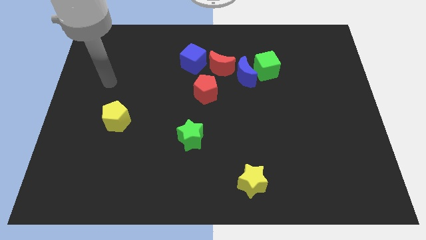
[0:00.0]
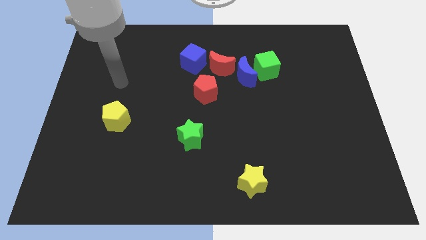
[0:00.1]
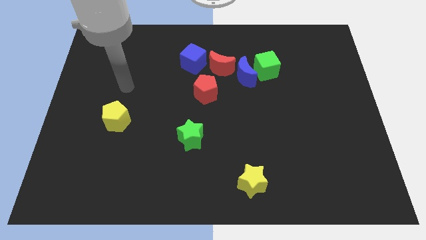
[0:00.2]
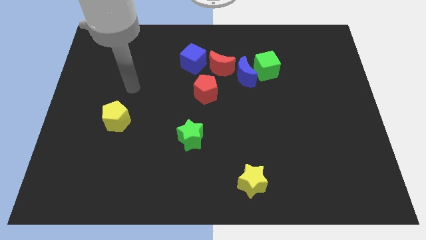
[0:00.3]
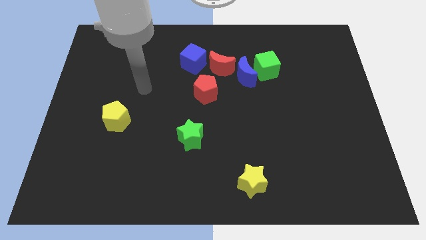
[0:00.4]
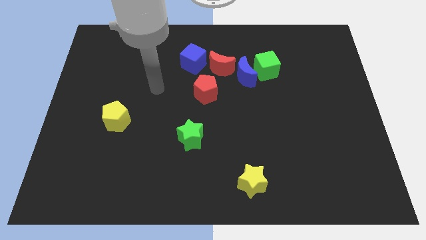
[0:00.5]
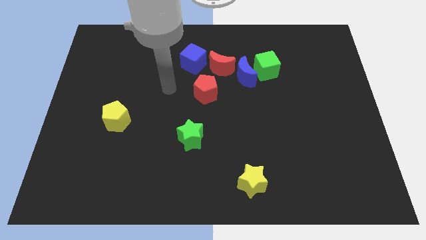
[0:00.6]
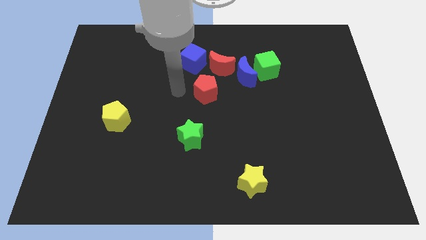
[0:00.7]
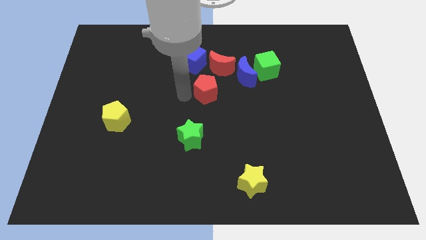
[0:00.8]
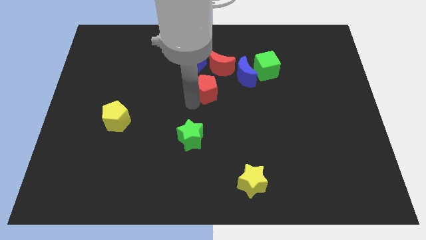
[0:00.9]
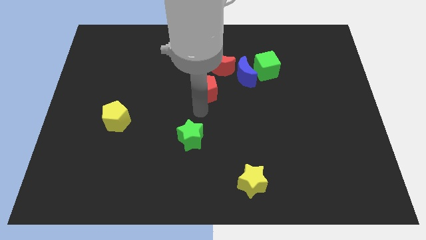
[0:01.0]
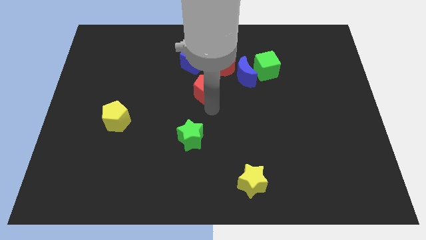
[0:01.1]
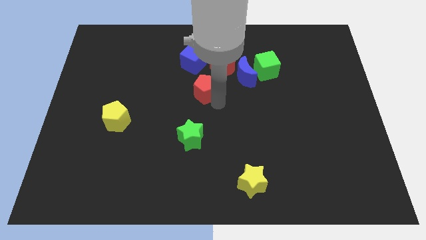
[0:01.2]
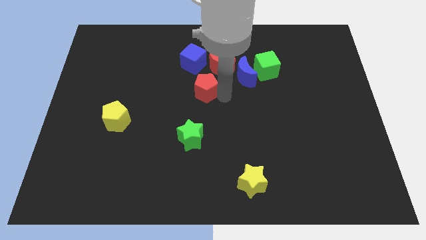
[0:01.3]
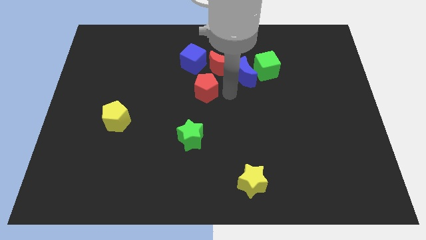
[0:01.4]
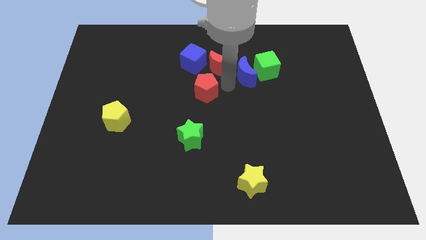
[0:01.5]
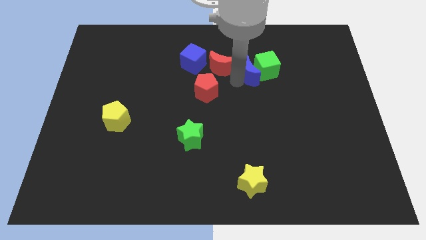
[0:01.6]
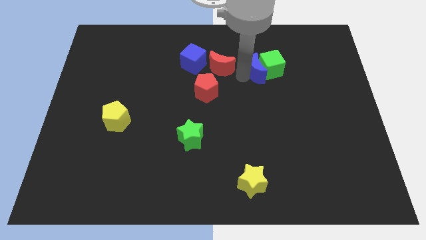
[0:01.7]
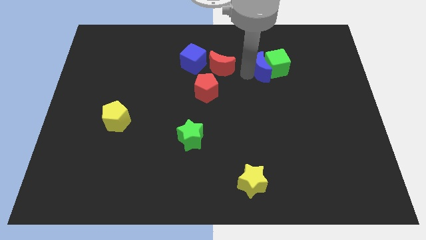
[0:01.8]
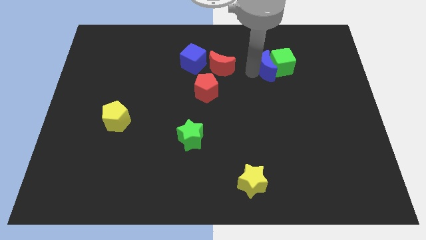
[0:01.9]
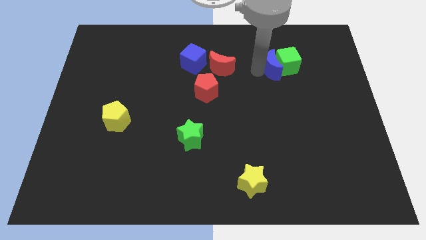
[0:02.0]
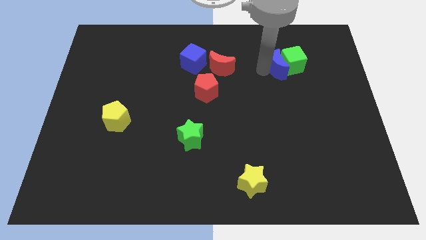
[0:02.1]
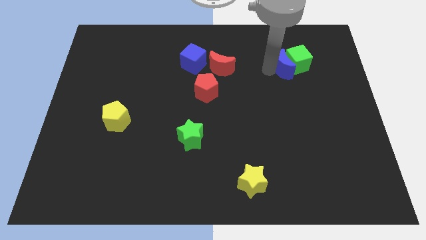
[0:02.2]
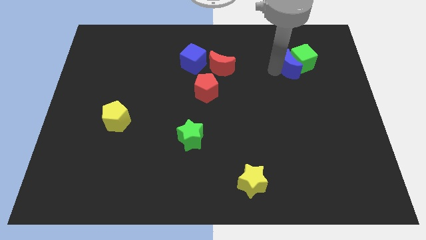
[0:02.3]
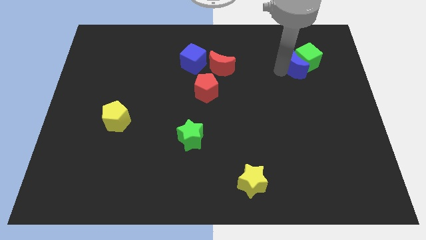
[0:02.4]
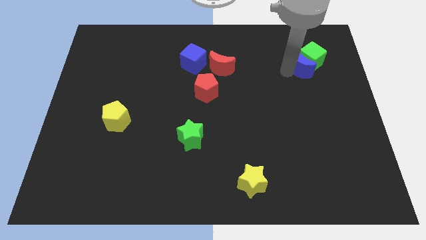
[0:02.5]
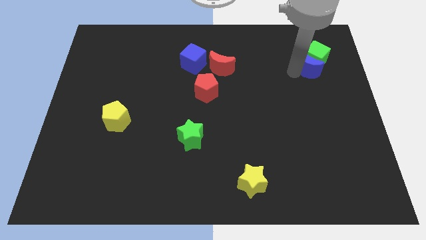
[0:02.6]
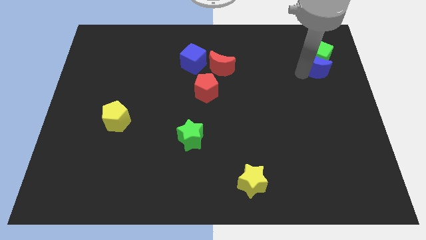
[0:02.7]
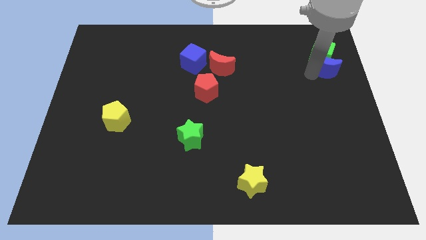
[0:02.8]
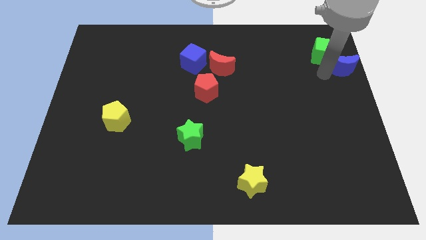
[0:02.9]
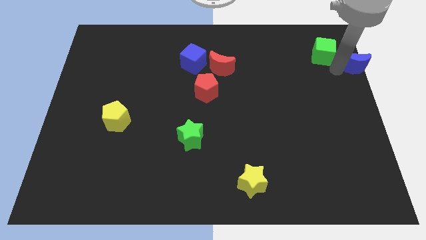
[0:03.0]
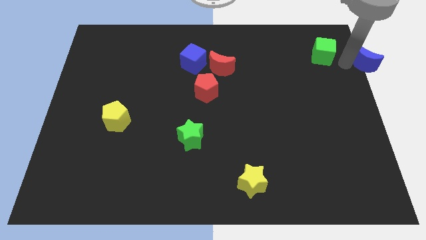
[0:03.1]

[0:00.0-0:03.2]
move the green cube away from the blue moon

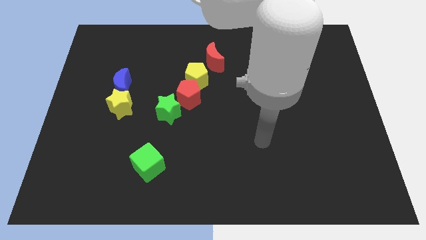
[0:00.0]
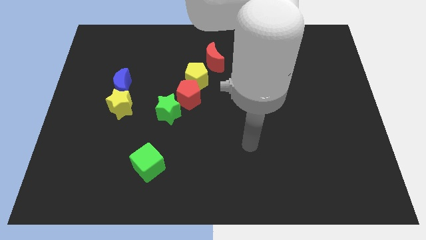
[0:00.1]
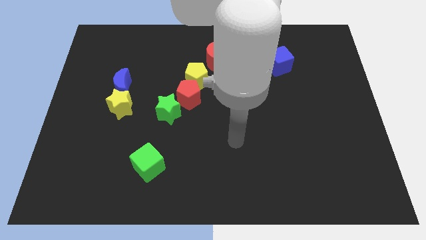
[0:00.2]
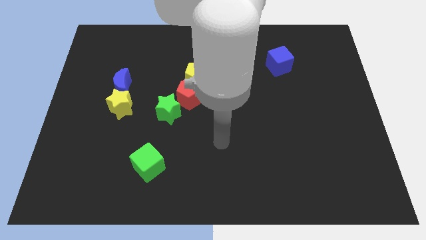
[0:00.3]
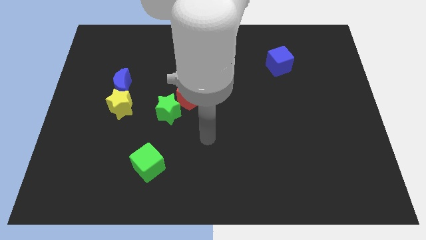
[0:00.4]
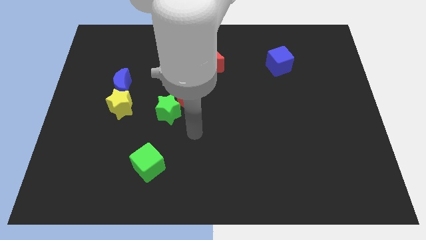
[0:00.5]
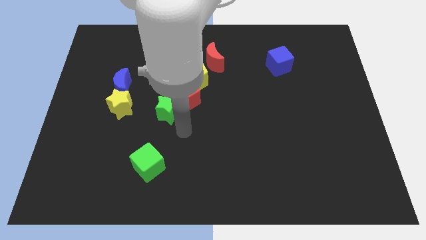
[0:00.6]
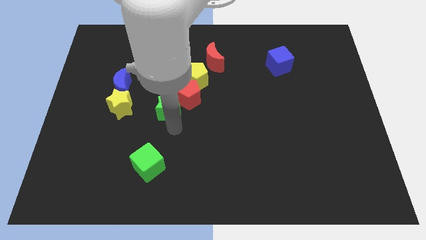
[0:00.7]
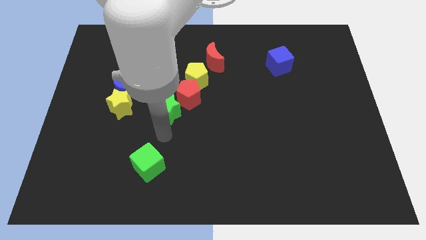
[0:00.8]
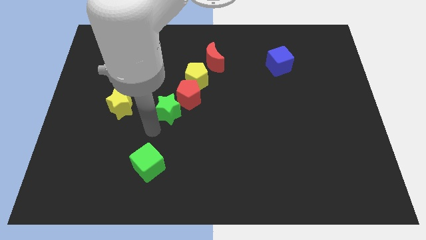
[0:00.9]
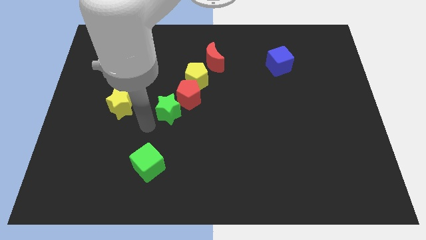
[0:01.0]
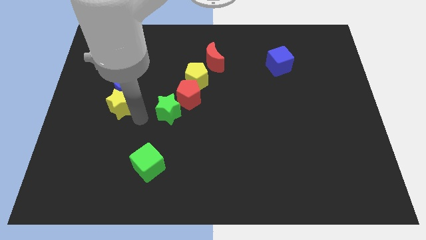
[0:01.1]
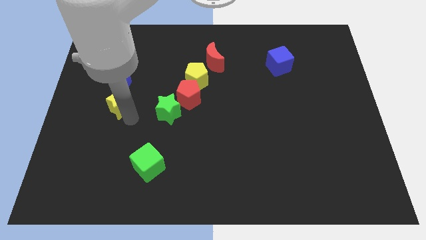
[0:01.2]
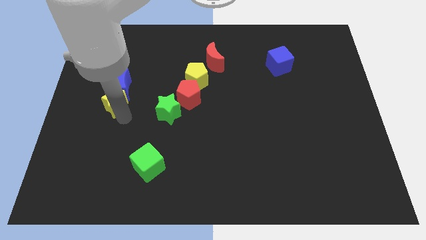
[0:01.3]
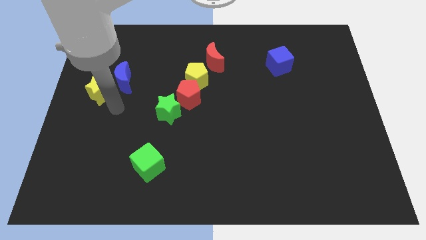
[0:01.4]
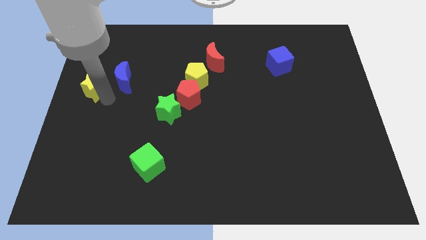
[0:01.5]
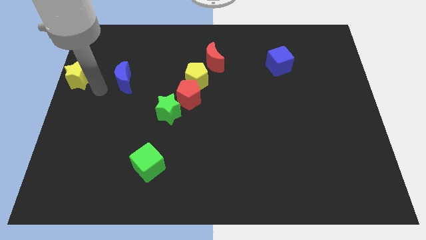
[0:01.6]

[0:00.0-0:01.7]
separate the blue moon from the yellow star

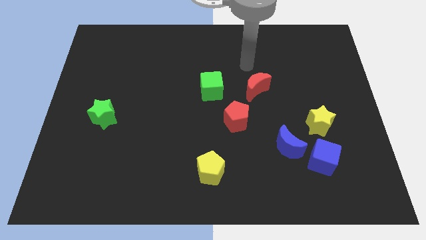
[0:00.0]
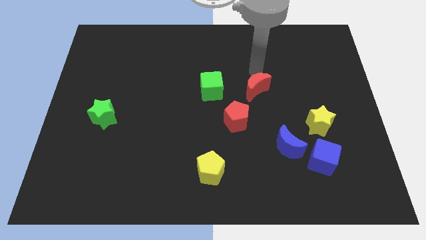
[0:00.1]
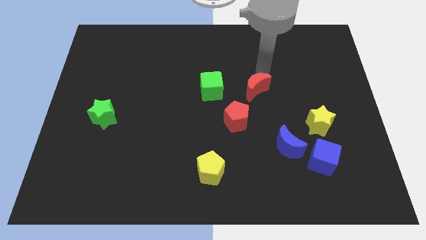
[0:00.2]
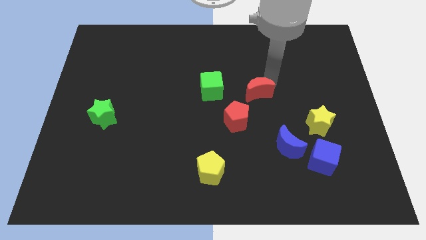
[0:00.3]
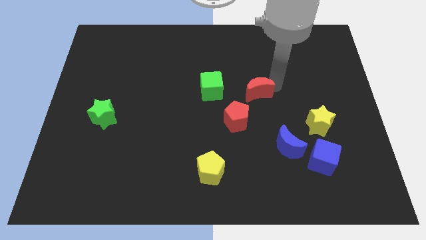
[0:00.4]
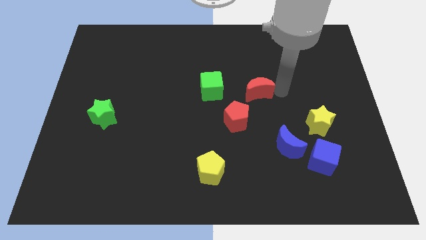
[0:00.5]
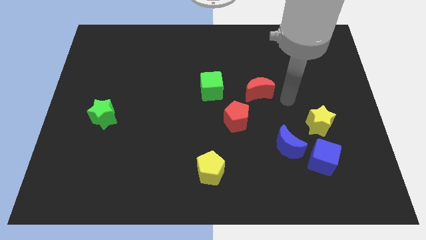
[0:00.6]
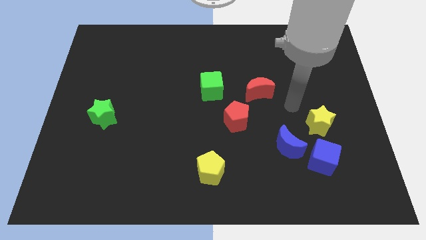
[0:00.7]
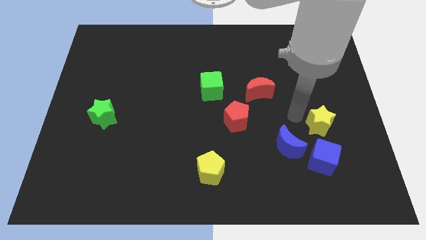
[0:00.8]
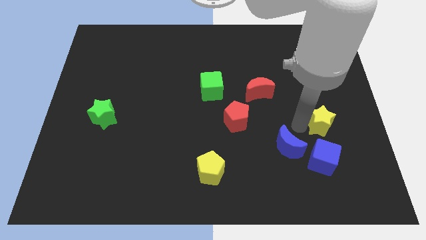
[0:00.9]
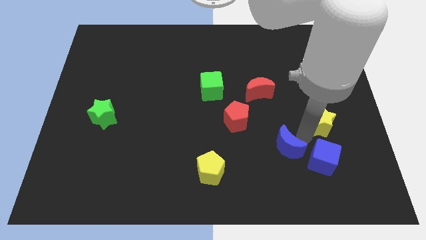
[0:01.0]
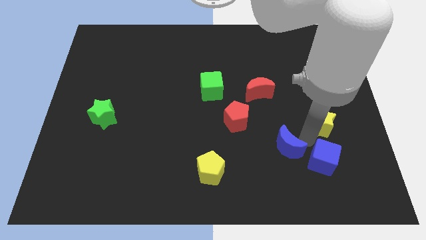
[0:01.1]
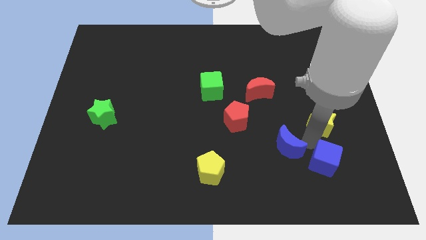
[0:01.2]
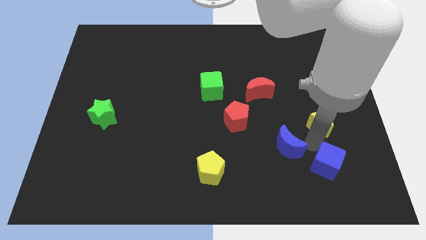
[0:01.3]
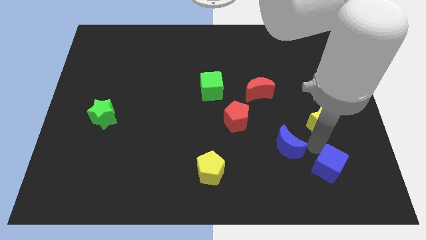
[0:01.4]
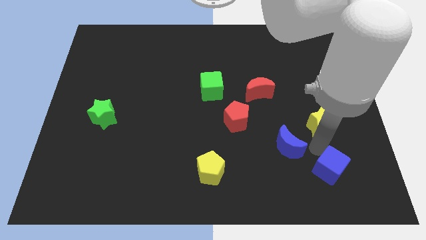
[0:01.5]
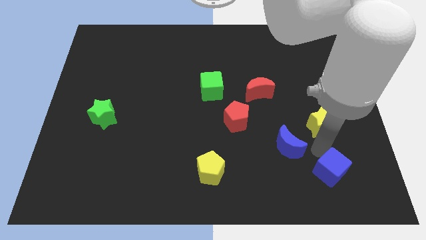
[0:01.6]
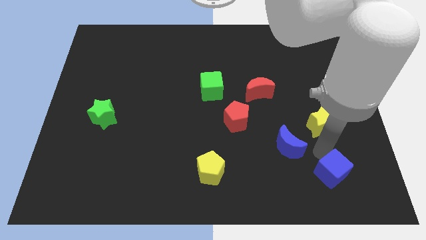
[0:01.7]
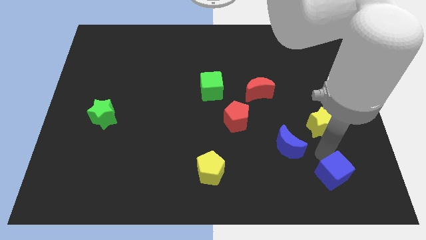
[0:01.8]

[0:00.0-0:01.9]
move the blue cube away from the blue moon and yellow star

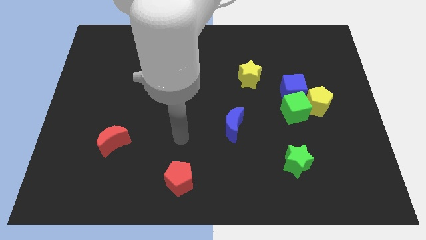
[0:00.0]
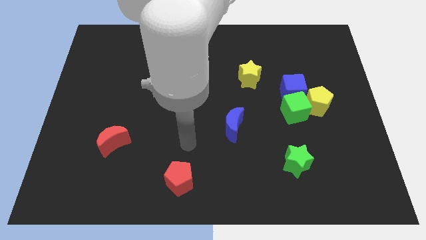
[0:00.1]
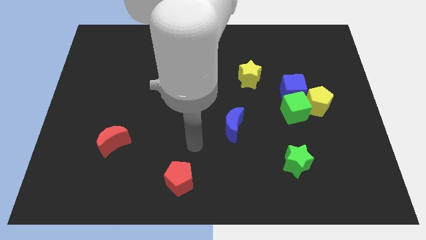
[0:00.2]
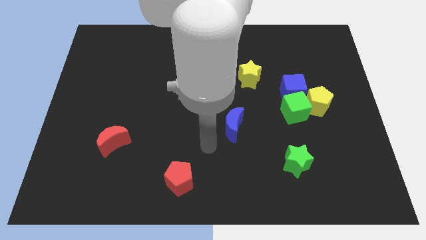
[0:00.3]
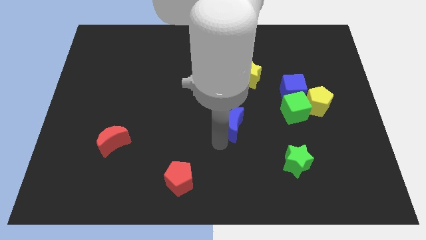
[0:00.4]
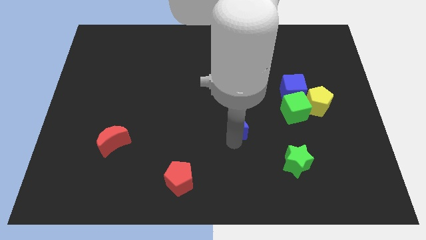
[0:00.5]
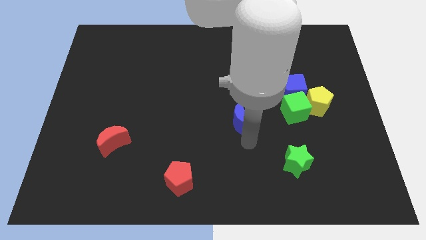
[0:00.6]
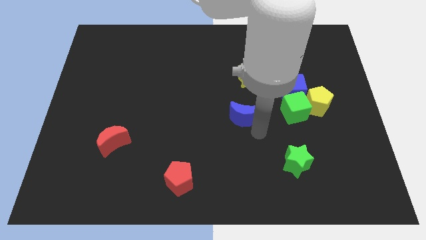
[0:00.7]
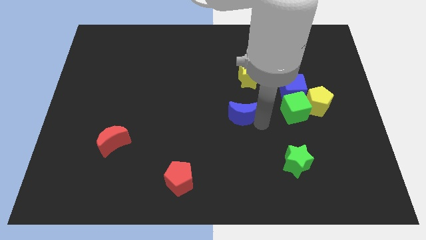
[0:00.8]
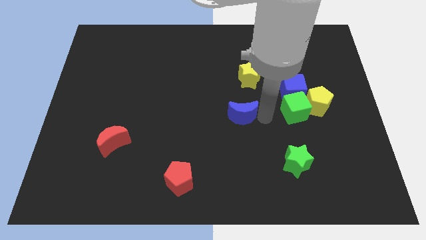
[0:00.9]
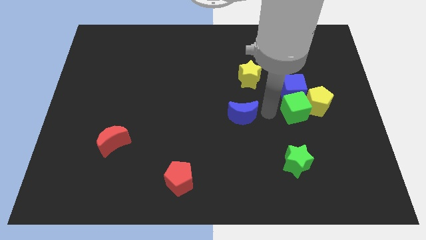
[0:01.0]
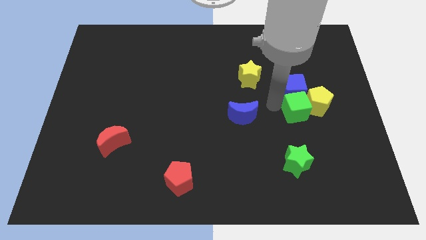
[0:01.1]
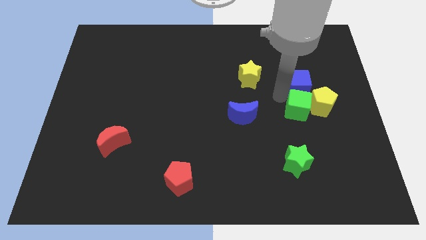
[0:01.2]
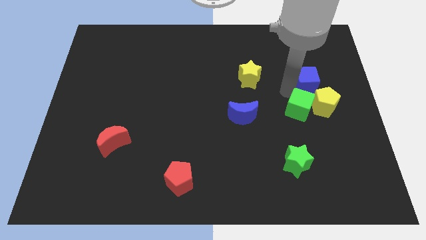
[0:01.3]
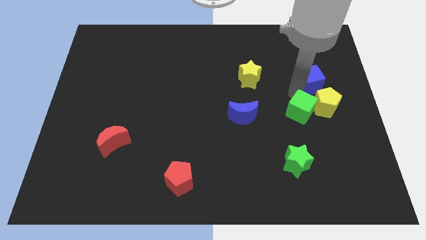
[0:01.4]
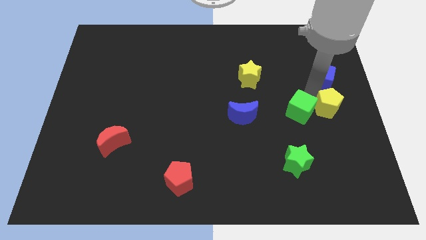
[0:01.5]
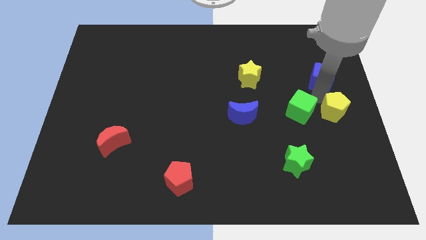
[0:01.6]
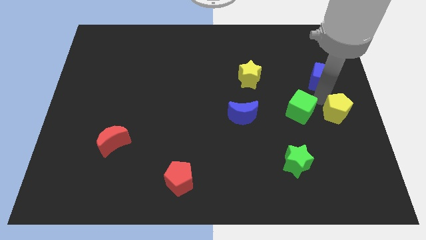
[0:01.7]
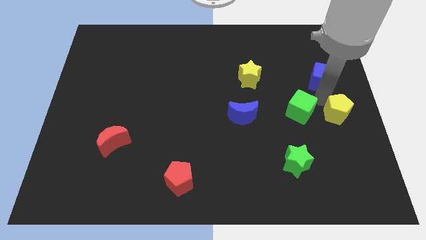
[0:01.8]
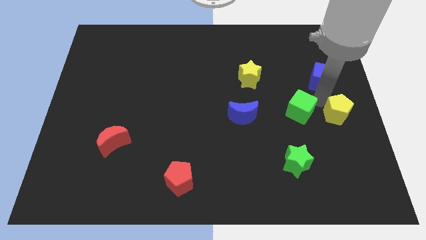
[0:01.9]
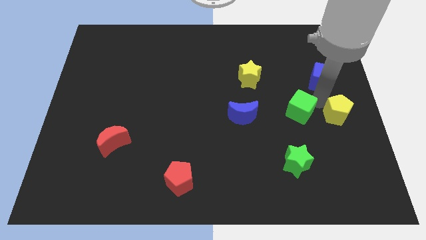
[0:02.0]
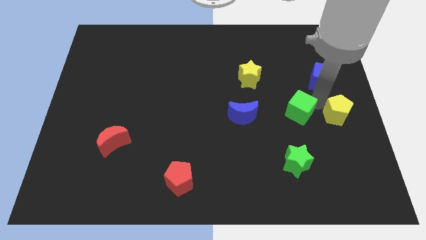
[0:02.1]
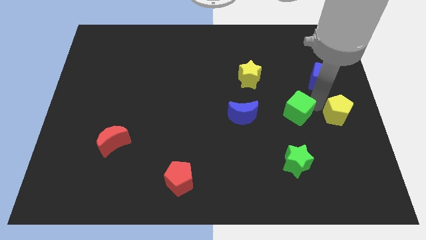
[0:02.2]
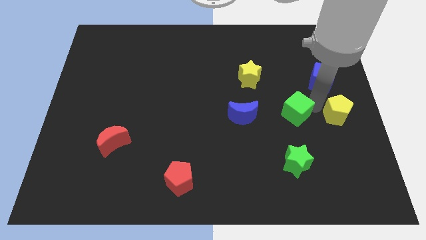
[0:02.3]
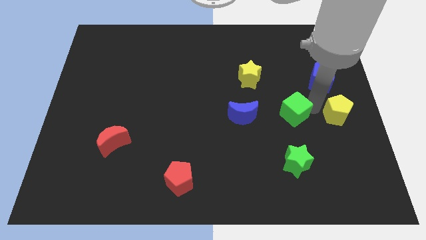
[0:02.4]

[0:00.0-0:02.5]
move the green cube away from the yellow pentagon and blue cube
